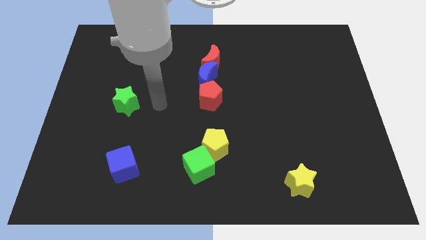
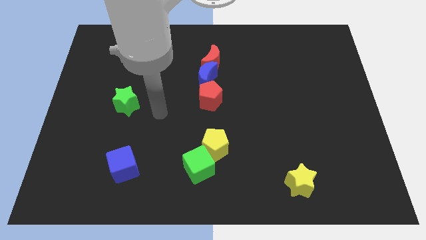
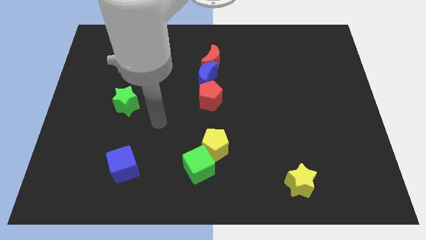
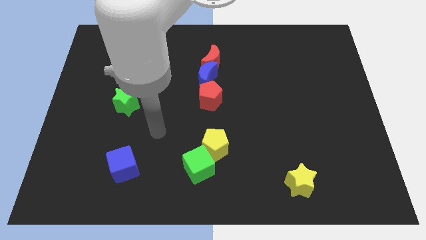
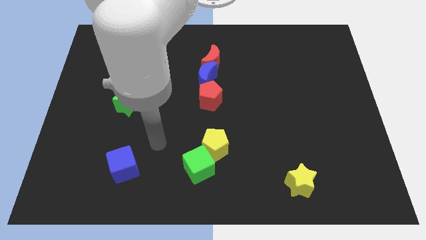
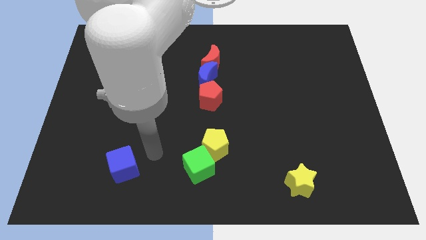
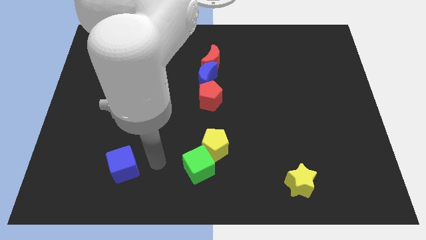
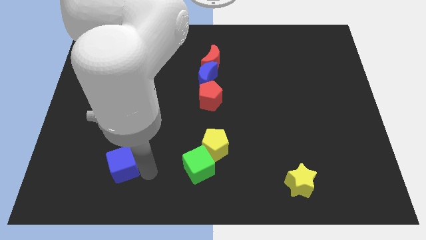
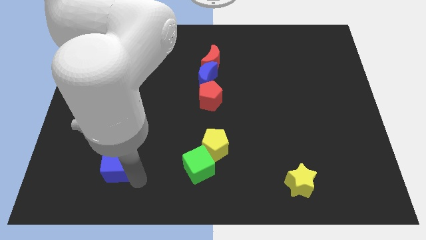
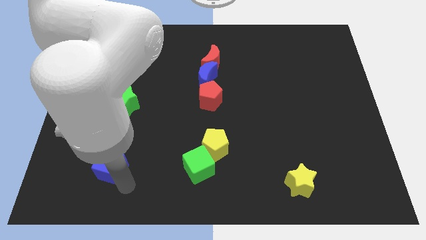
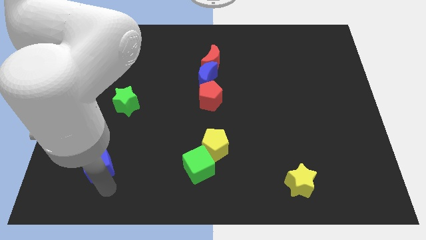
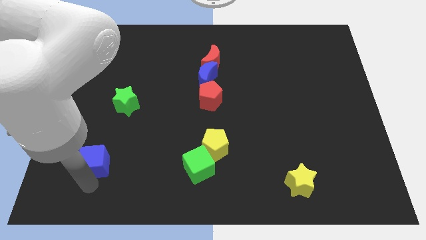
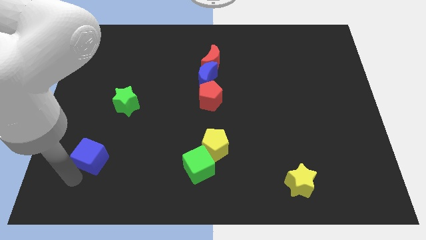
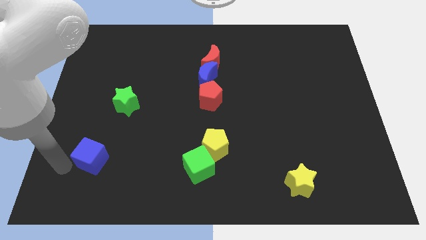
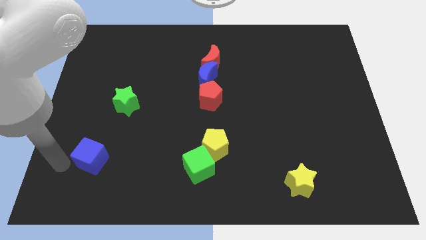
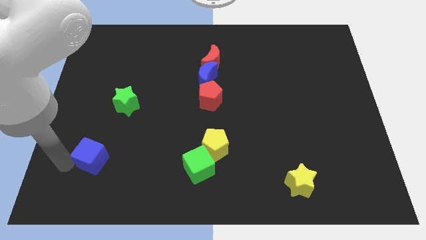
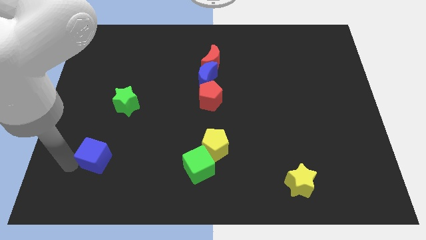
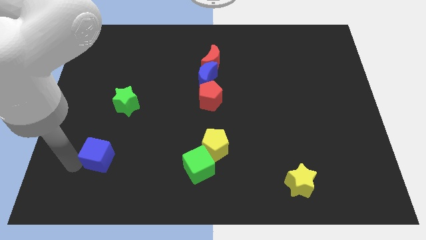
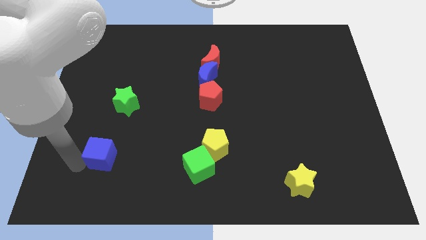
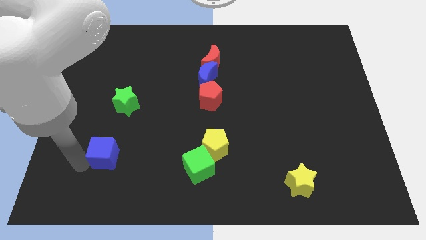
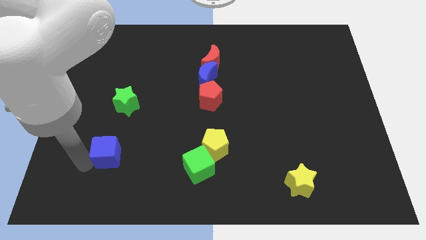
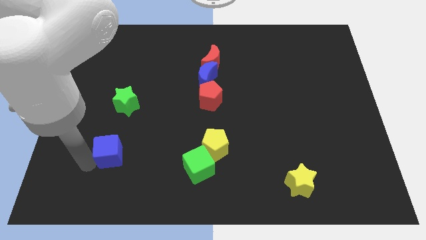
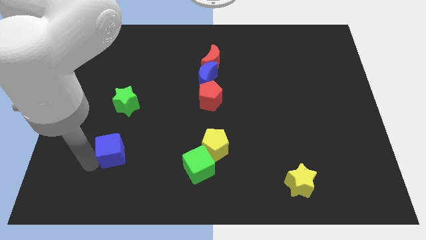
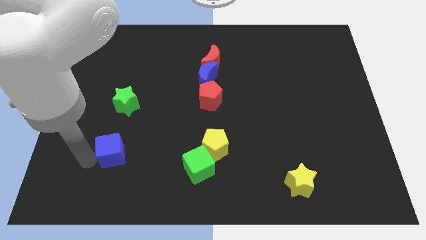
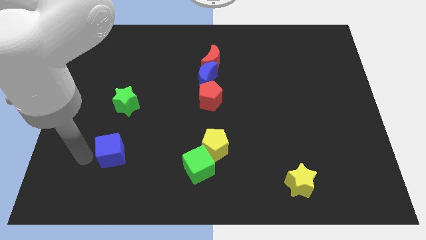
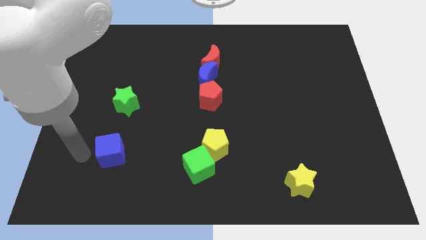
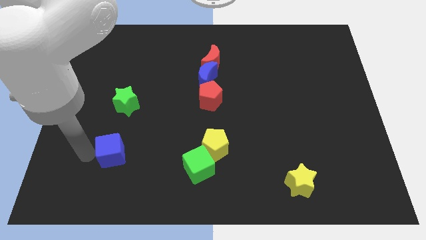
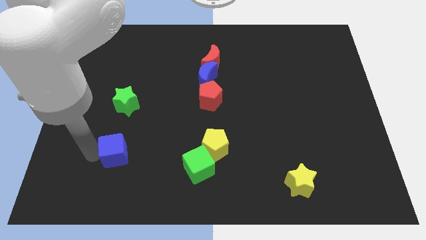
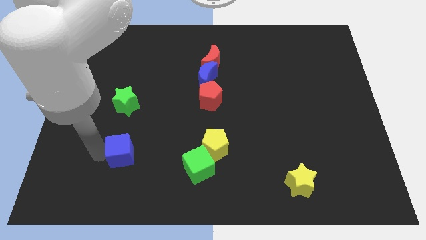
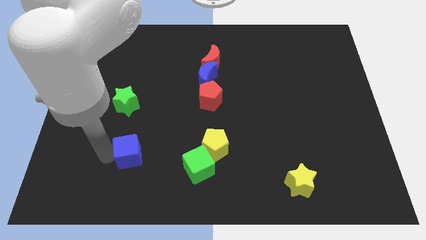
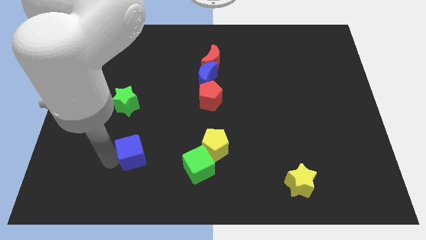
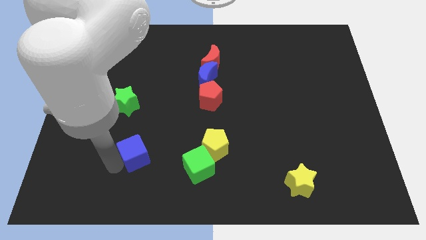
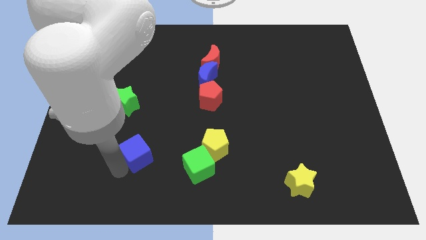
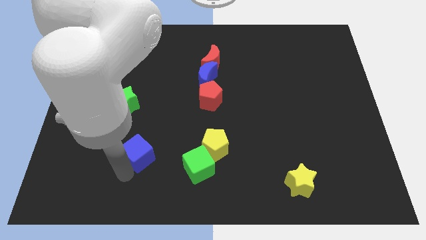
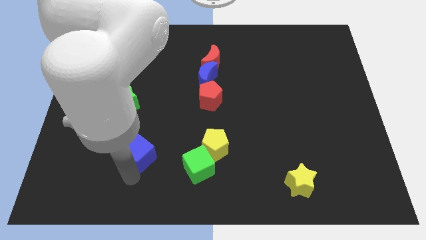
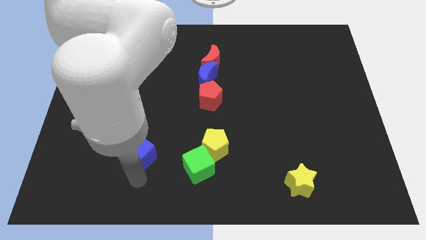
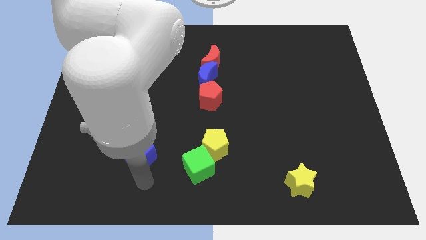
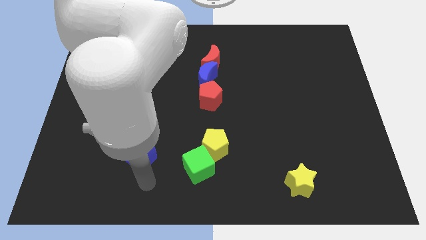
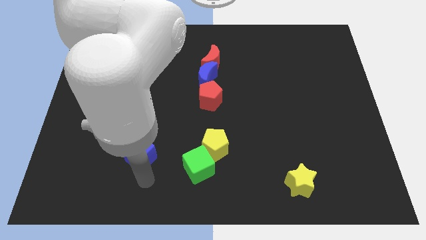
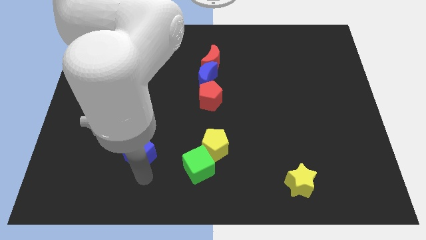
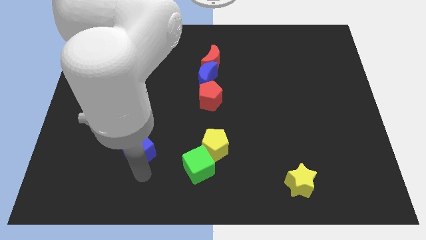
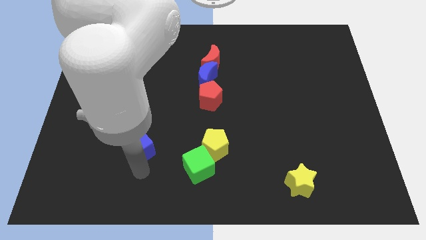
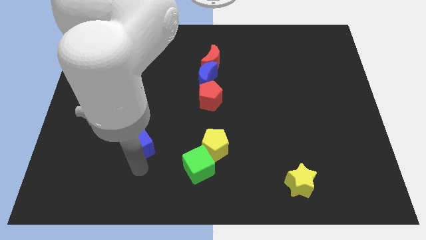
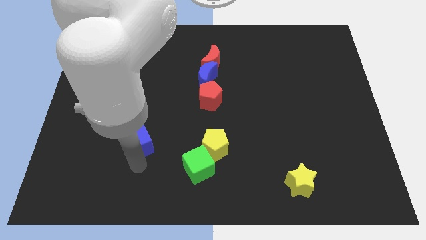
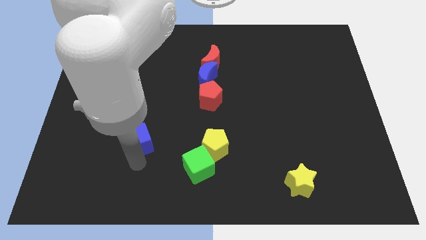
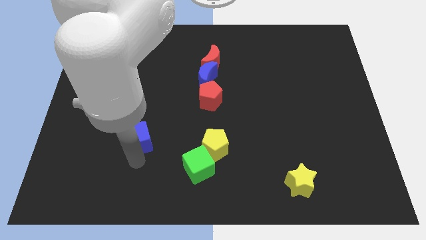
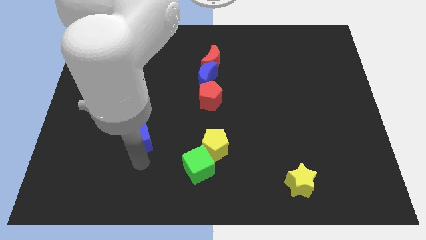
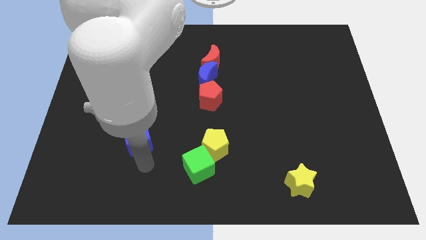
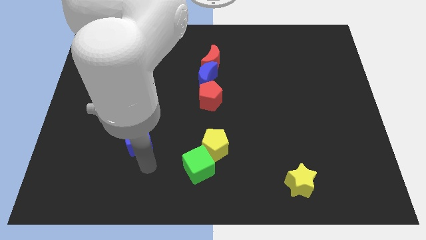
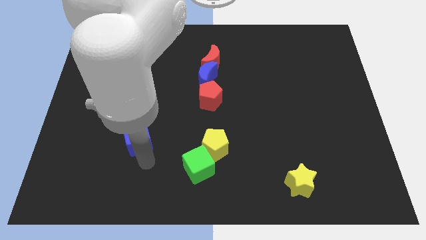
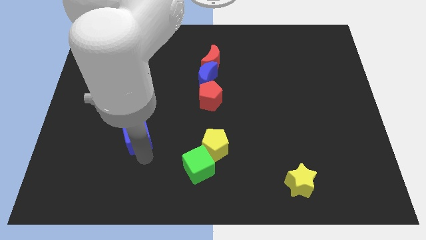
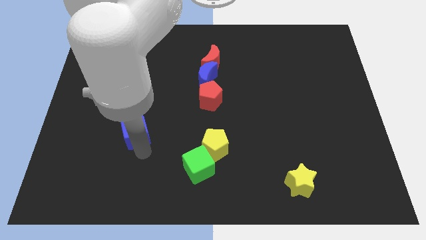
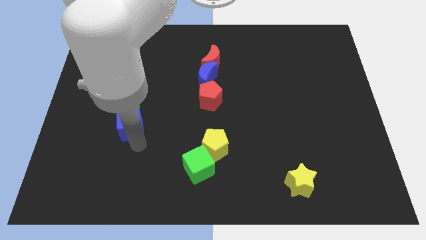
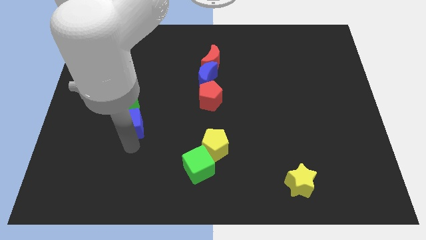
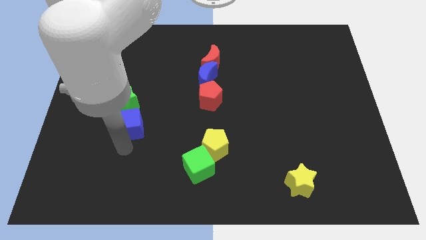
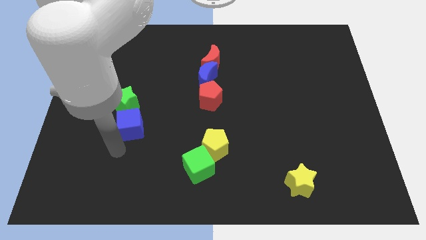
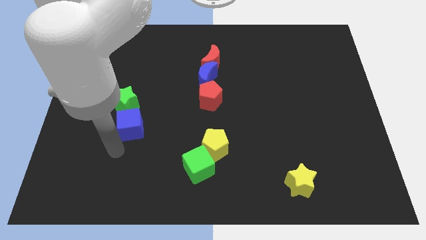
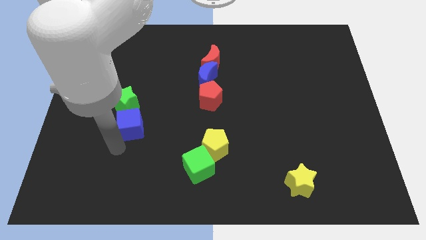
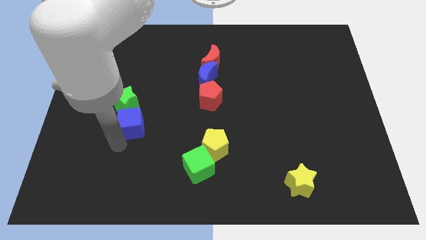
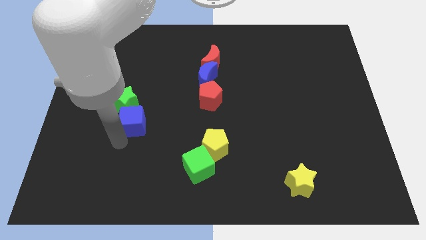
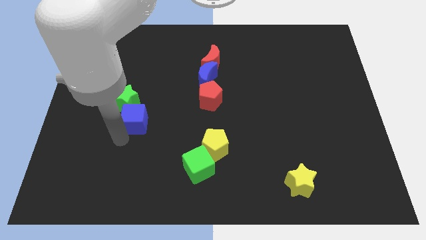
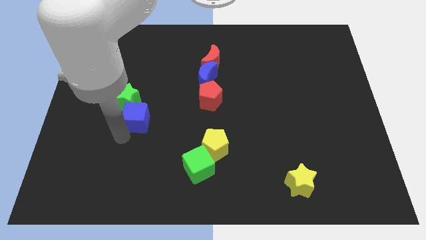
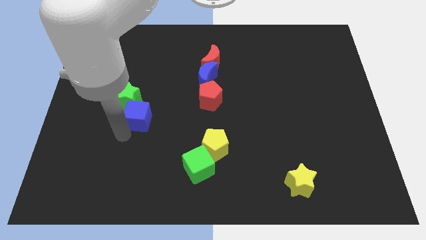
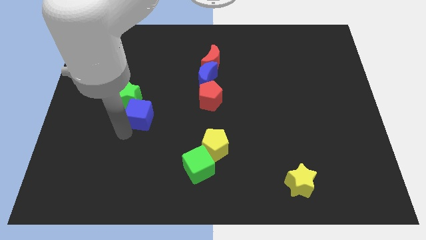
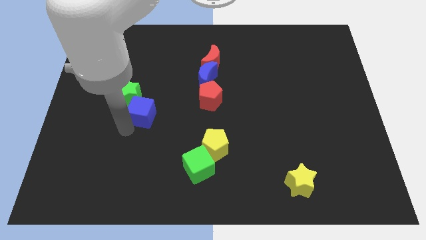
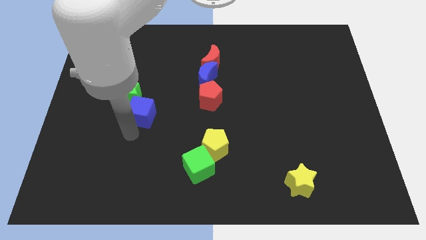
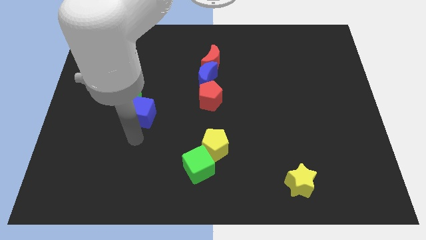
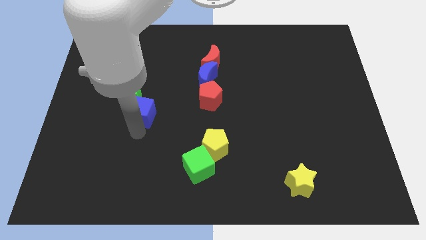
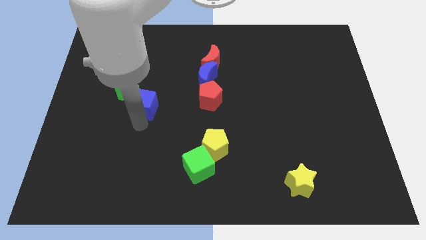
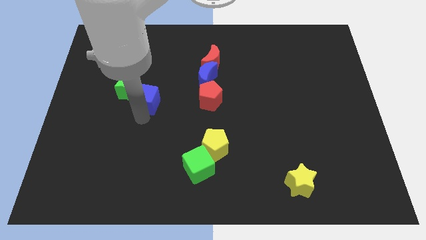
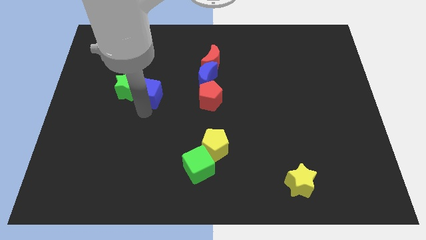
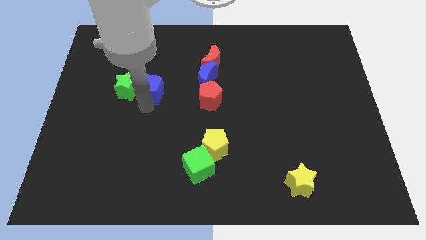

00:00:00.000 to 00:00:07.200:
move the blue cube up

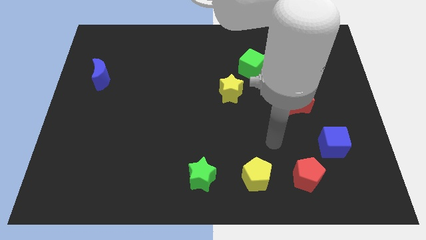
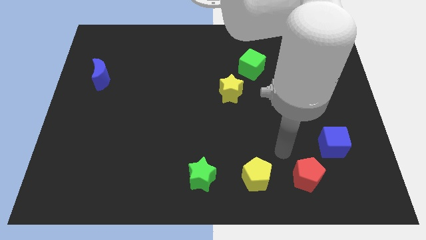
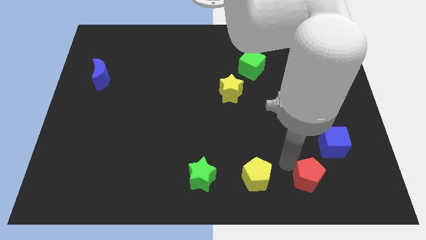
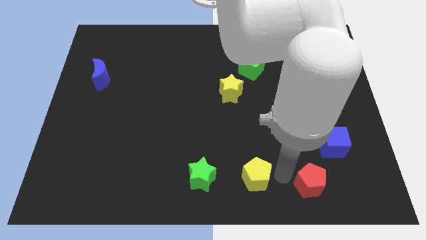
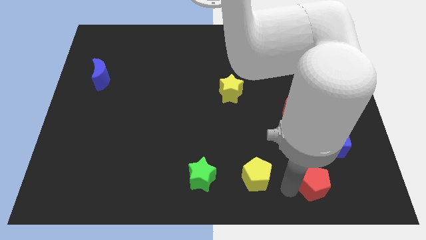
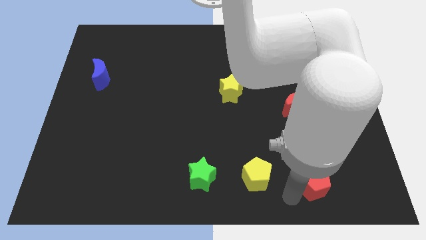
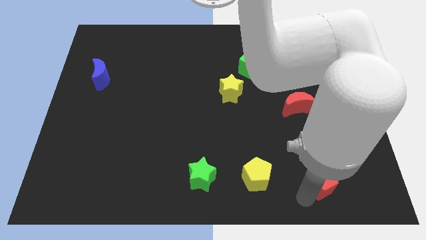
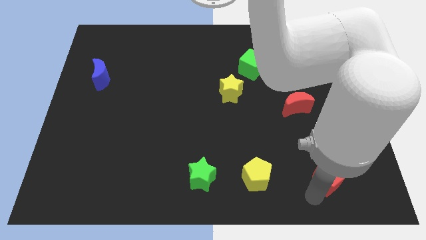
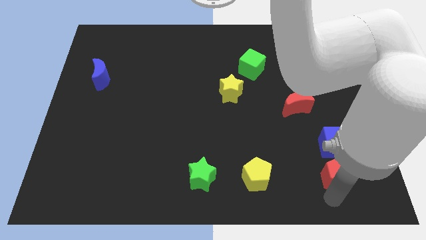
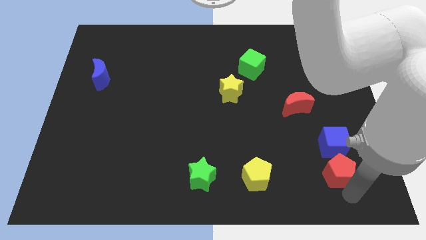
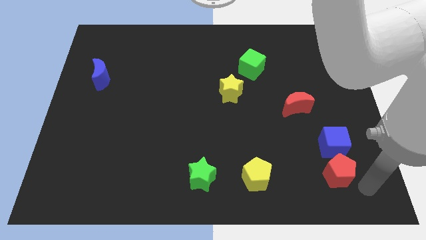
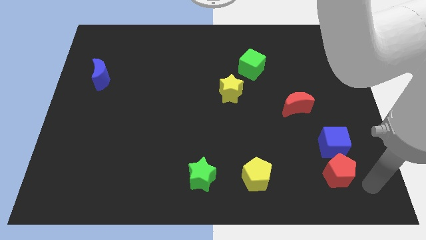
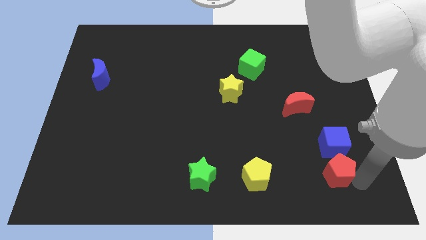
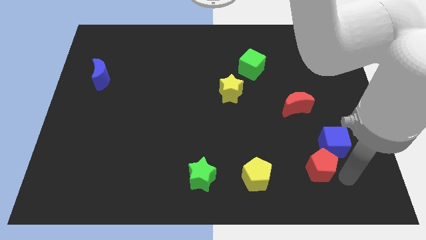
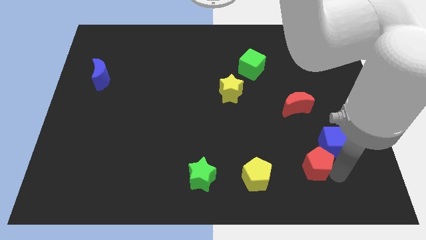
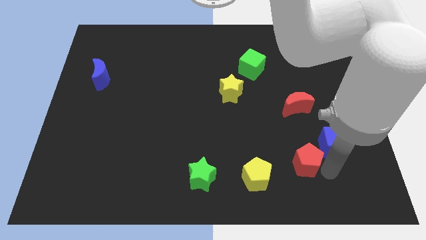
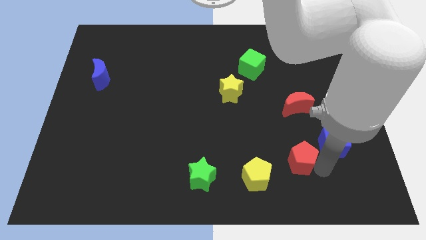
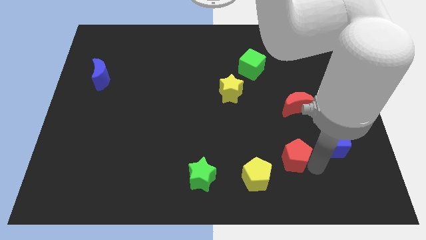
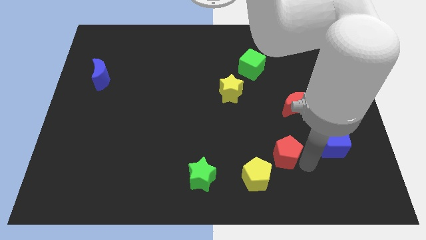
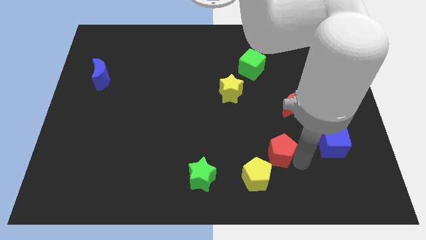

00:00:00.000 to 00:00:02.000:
slightly slide the red pentagon upwards and to the left
